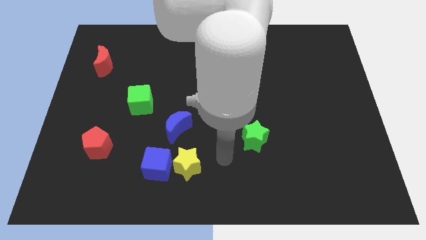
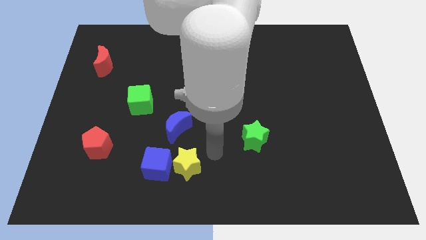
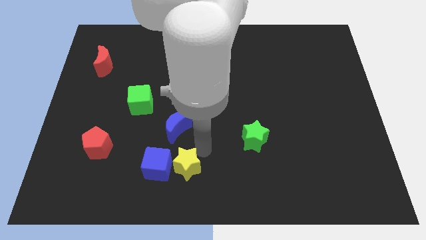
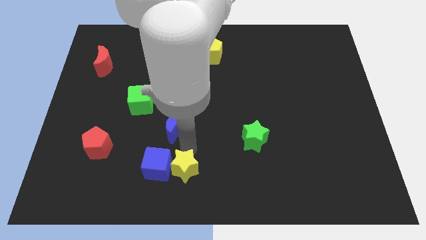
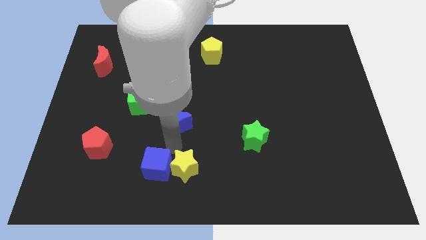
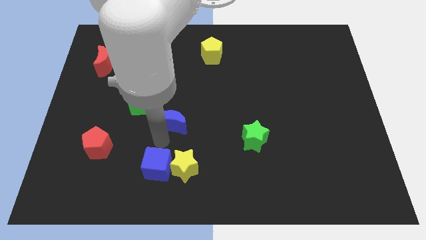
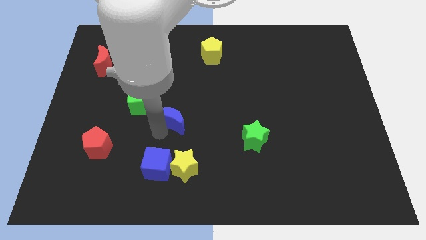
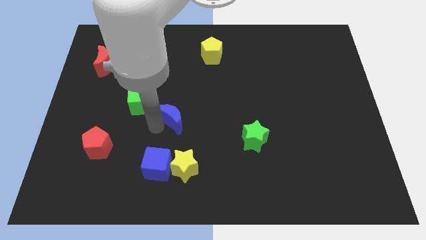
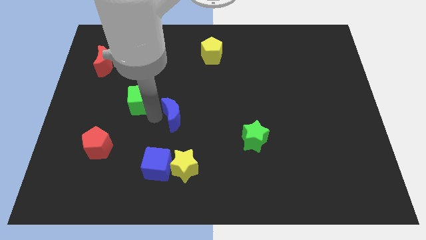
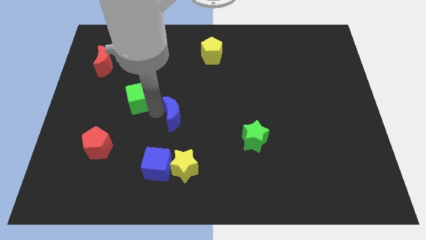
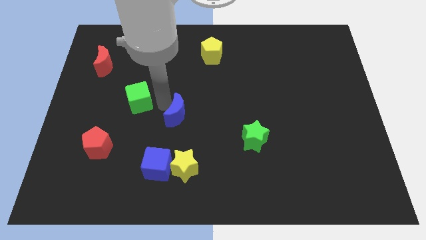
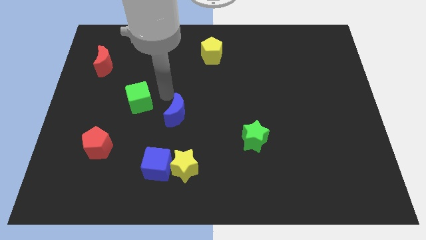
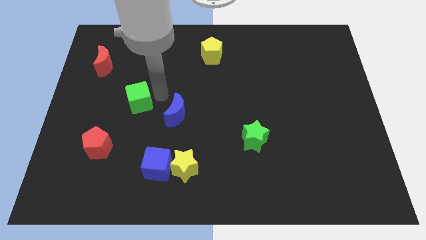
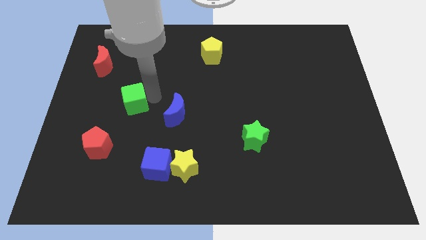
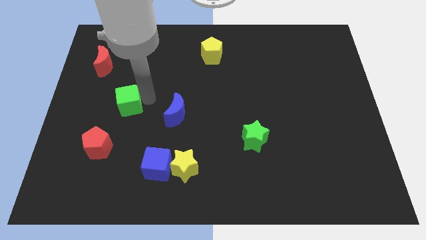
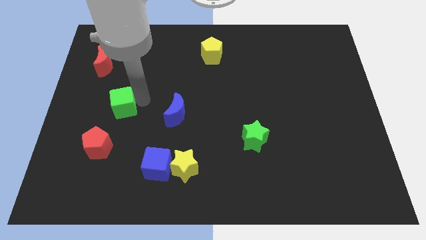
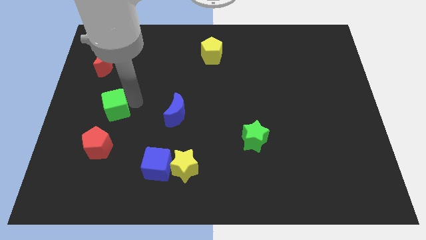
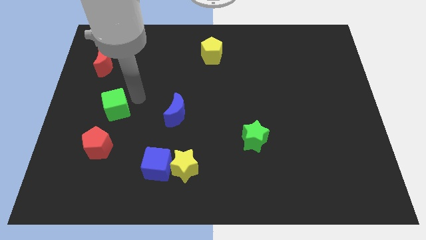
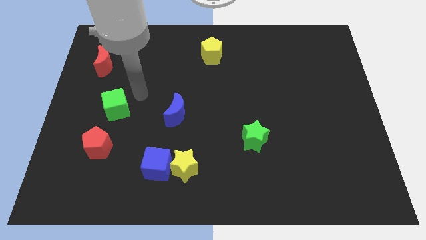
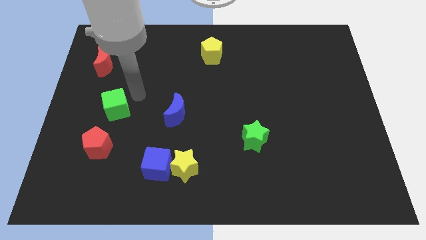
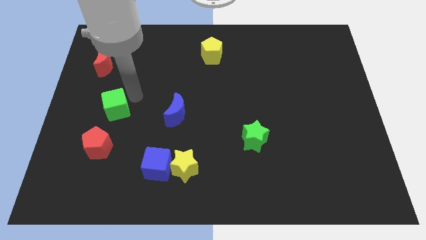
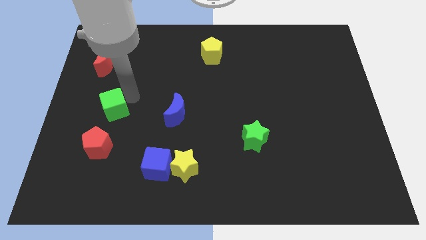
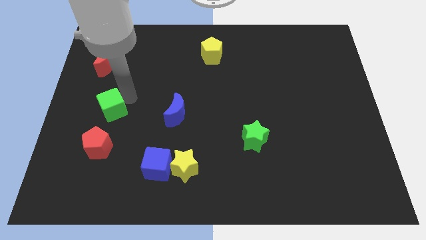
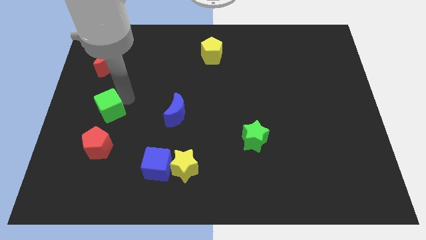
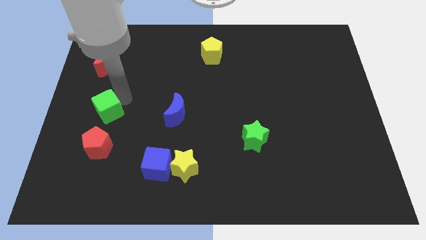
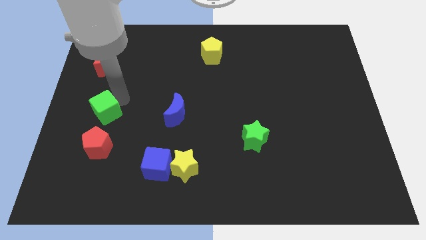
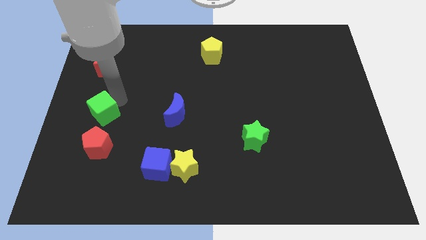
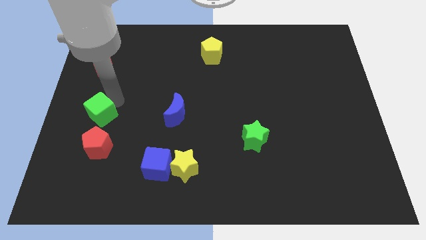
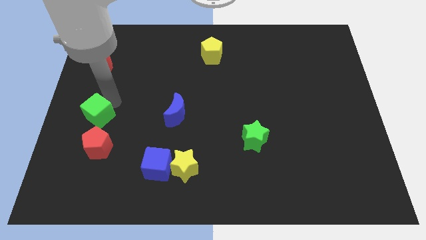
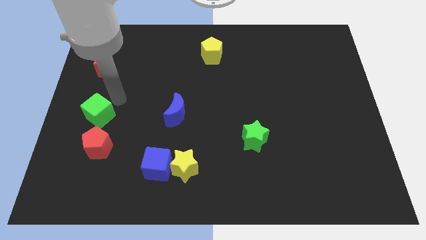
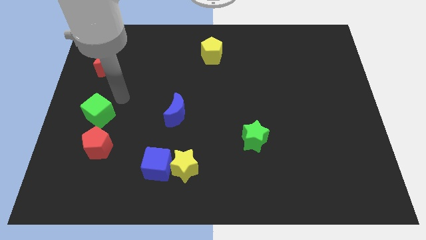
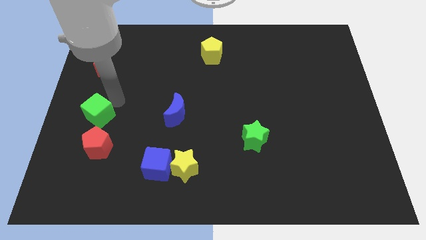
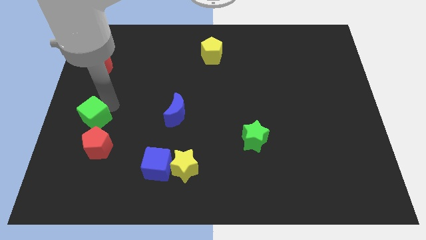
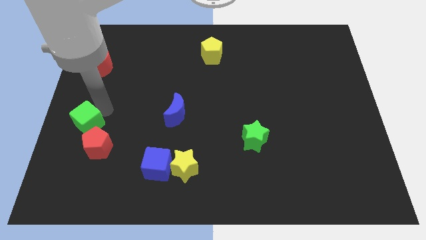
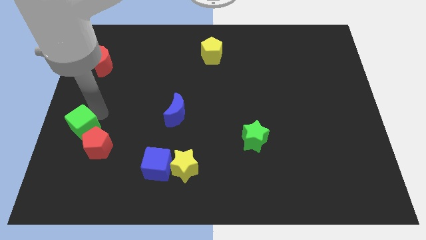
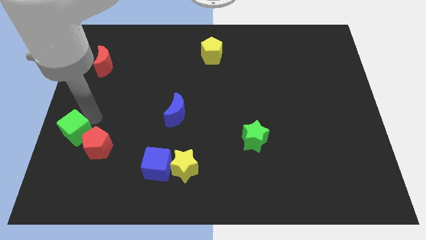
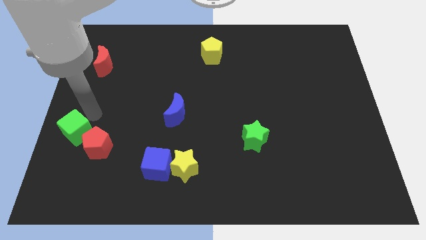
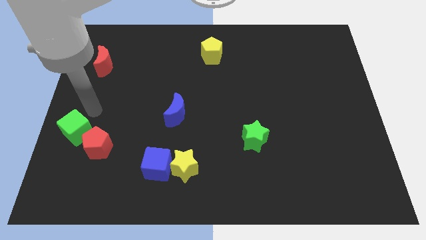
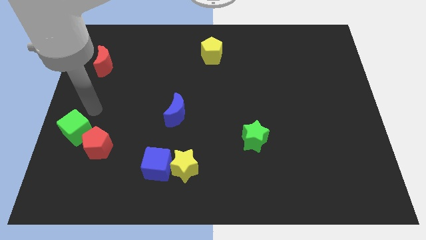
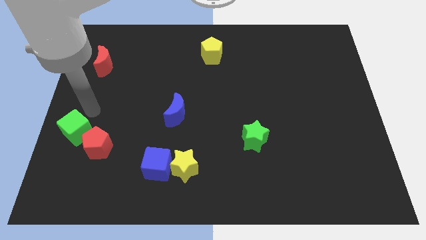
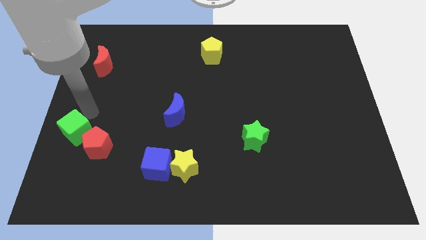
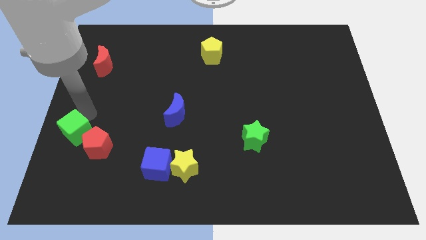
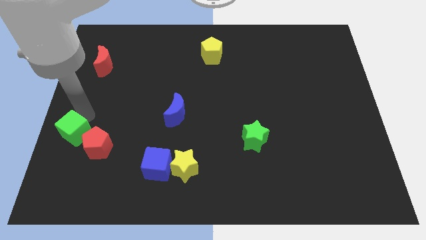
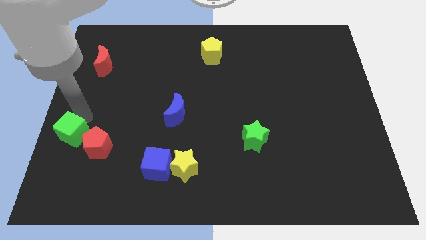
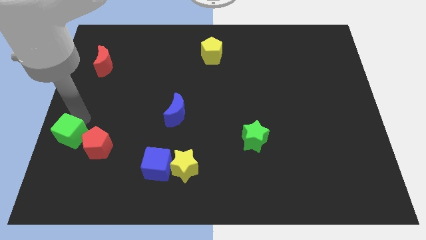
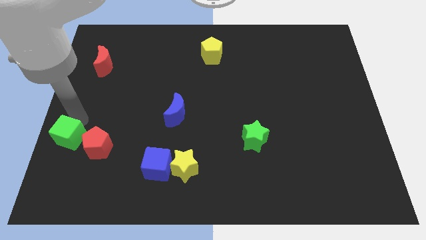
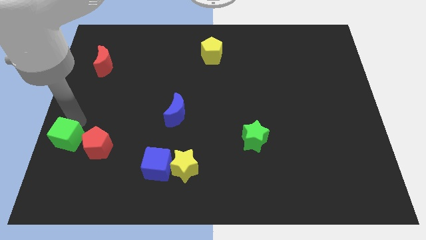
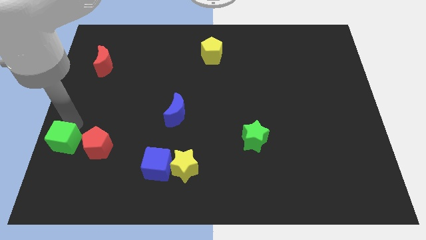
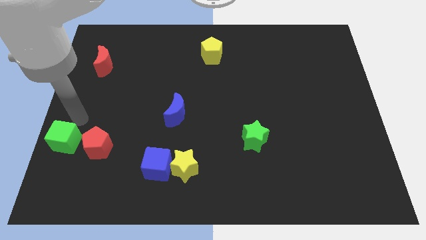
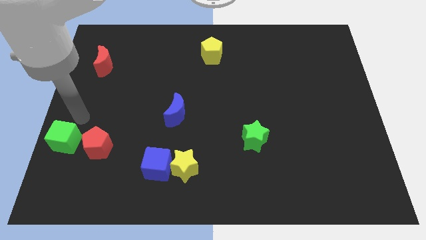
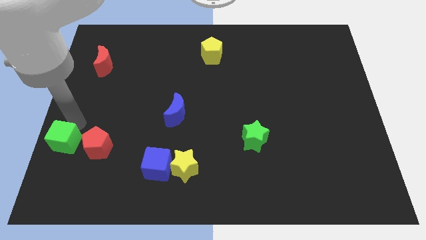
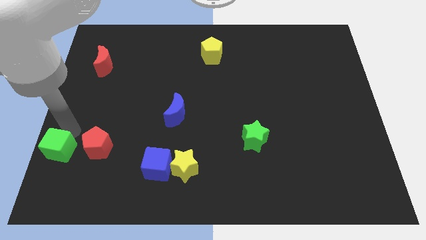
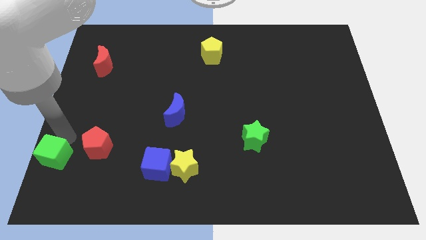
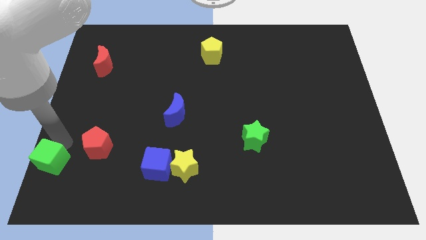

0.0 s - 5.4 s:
put the green cube to the bottom left corner
